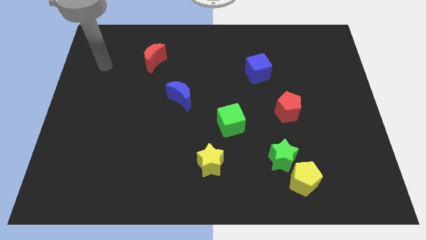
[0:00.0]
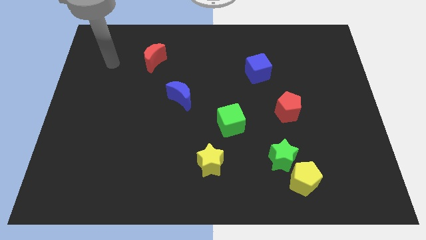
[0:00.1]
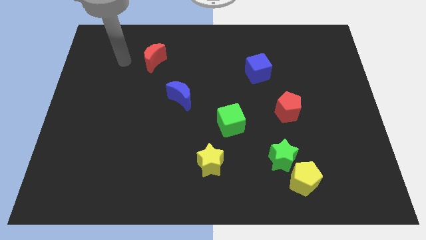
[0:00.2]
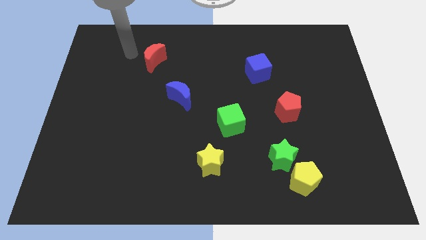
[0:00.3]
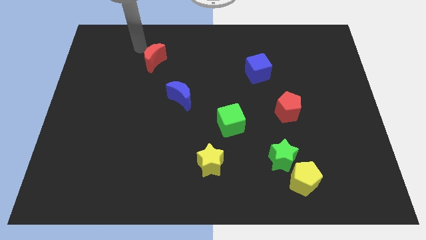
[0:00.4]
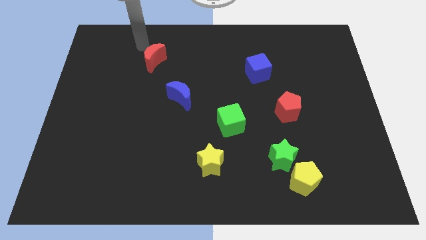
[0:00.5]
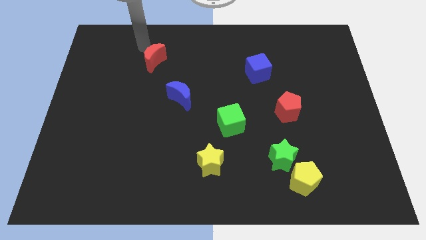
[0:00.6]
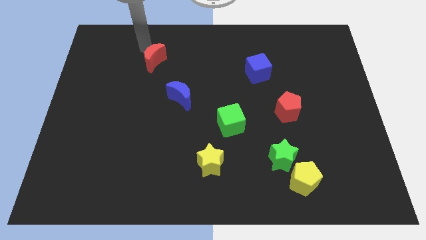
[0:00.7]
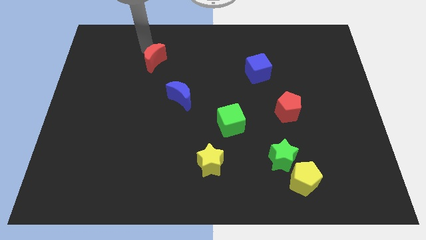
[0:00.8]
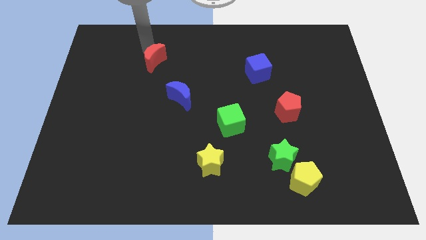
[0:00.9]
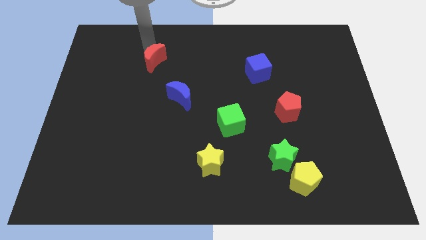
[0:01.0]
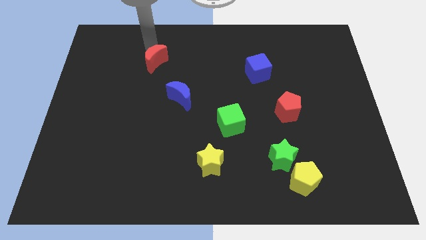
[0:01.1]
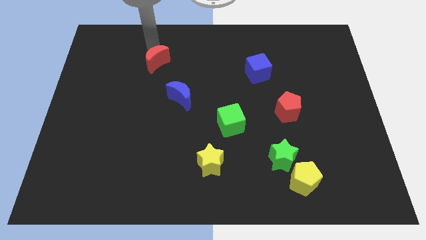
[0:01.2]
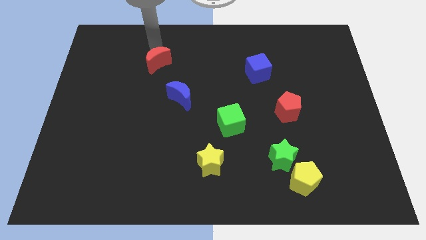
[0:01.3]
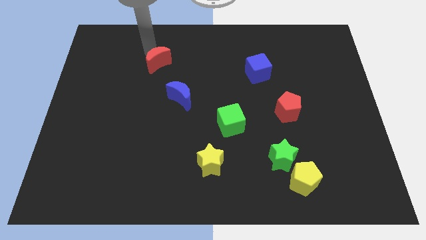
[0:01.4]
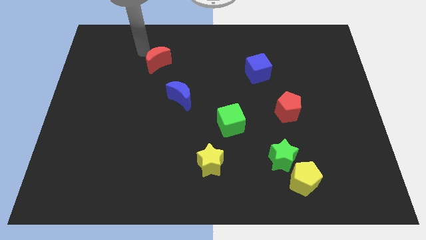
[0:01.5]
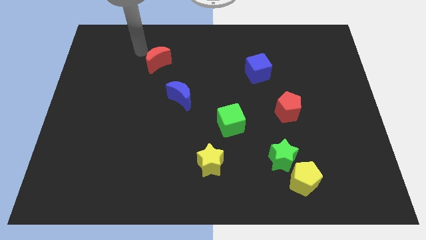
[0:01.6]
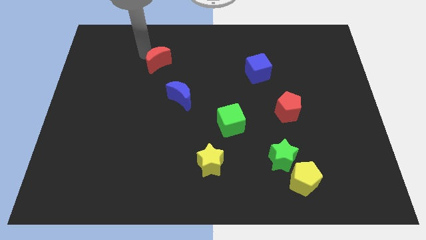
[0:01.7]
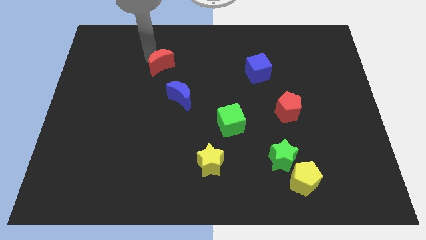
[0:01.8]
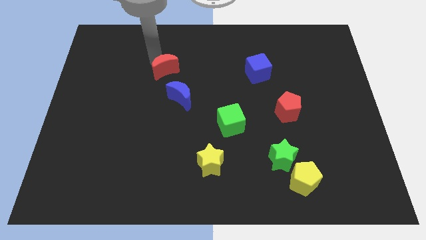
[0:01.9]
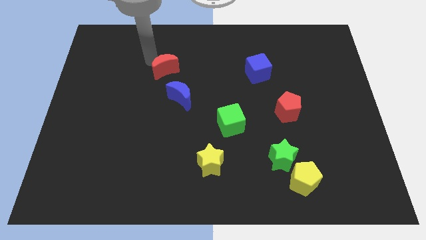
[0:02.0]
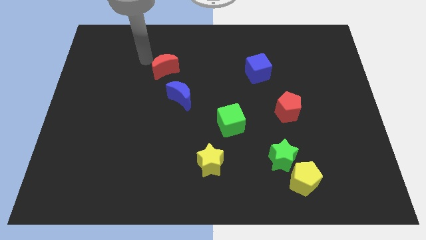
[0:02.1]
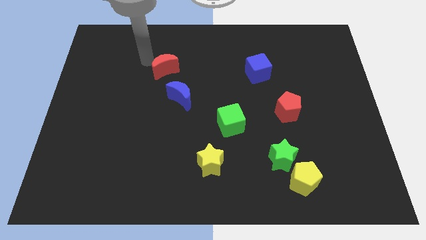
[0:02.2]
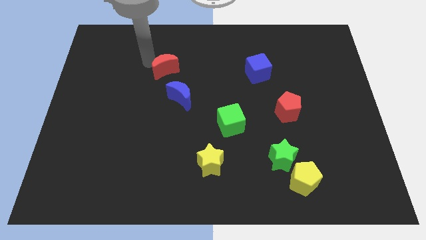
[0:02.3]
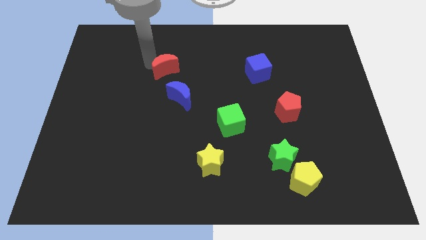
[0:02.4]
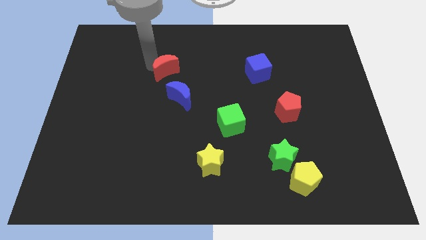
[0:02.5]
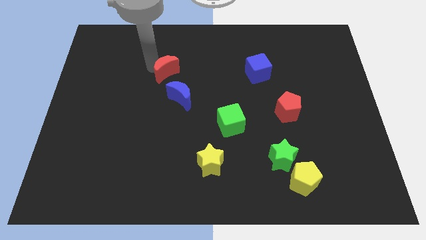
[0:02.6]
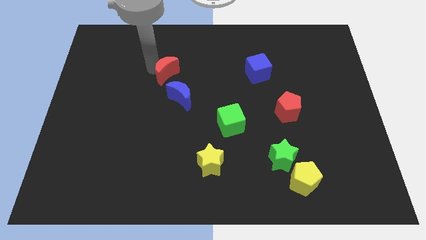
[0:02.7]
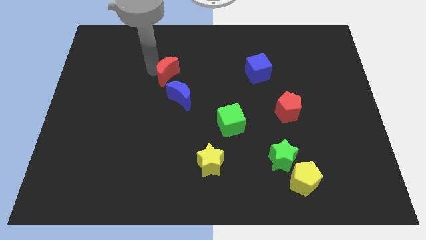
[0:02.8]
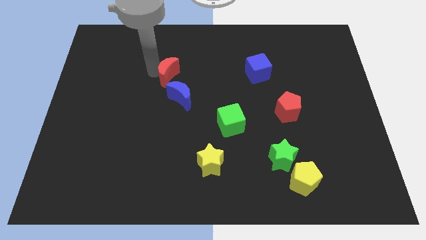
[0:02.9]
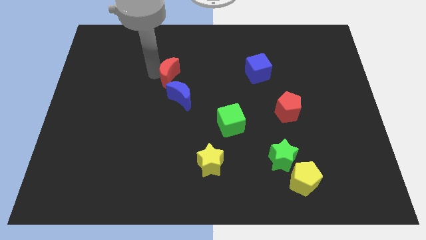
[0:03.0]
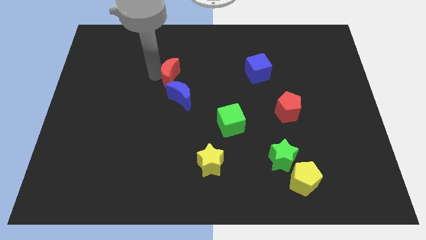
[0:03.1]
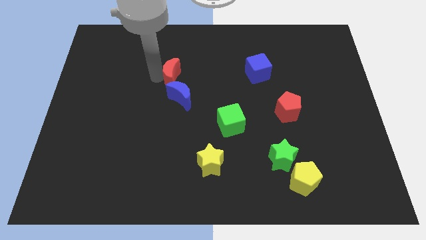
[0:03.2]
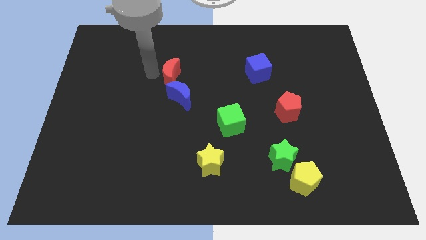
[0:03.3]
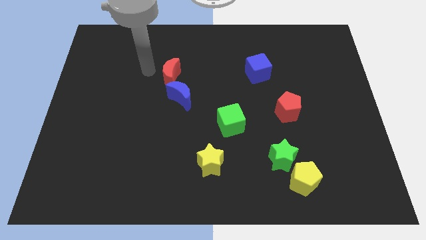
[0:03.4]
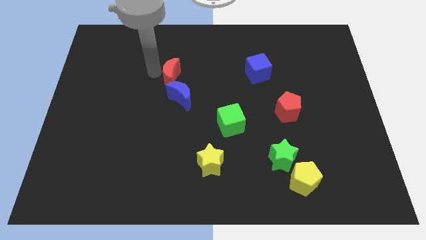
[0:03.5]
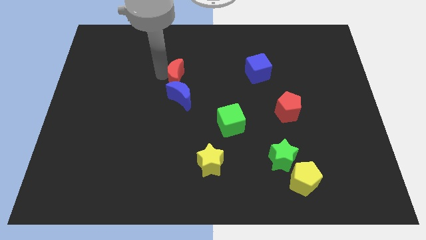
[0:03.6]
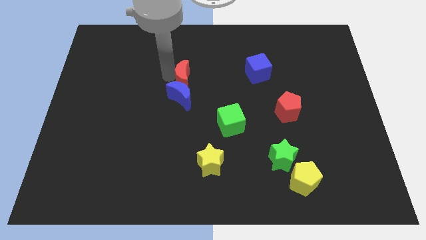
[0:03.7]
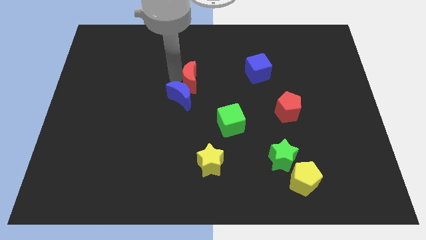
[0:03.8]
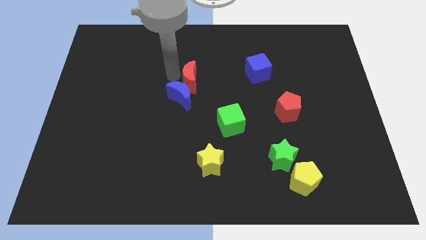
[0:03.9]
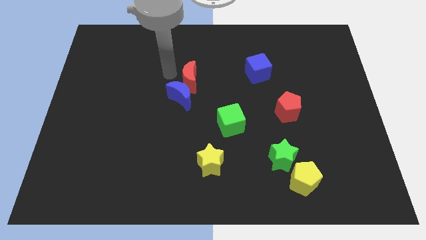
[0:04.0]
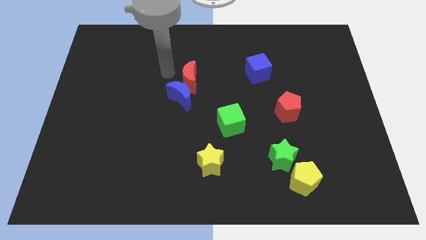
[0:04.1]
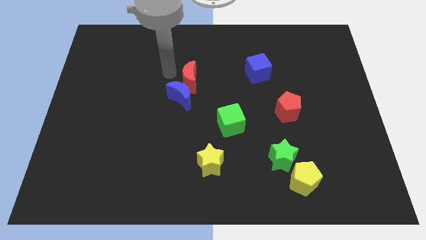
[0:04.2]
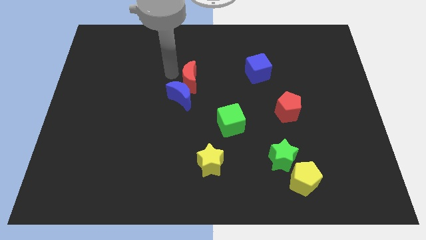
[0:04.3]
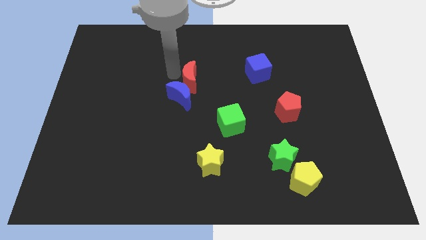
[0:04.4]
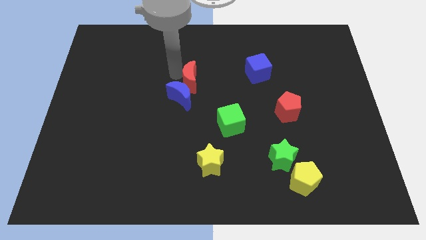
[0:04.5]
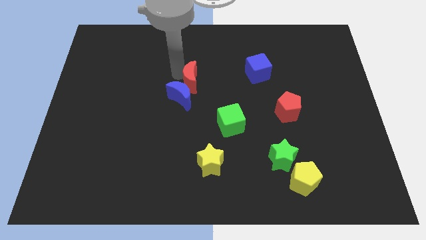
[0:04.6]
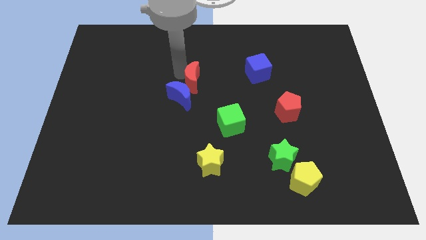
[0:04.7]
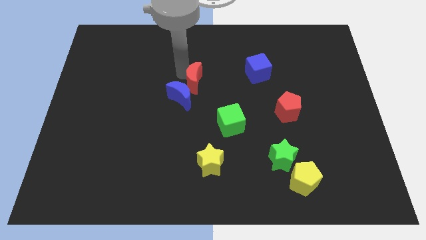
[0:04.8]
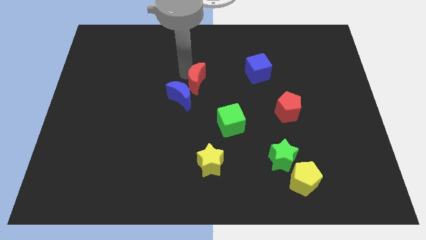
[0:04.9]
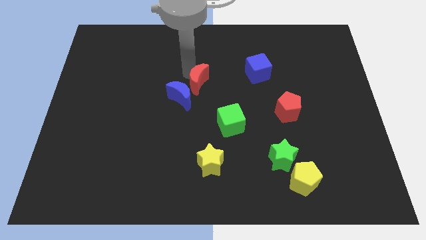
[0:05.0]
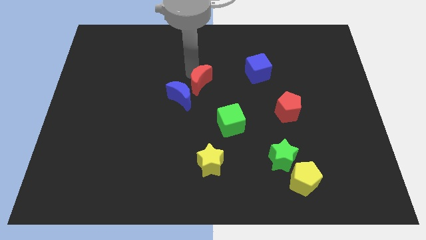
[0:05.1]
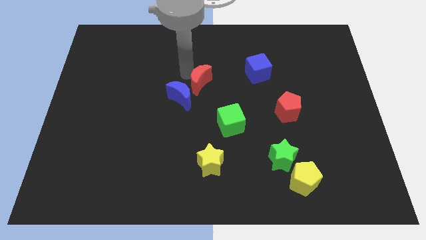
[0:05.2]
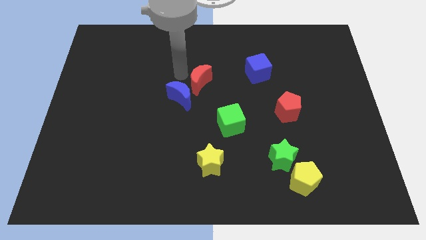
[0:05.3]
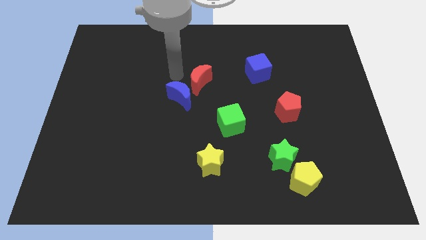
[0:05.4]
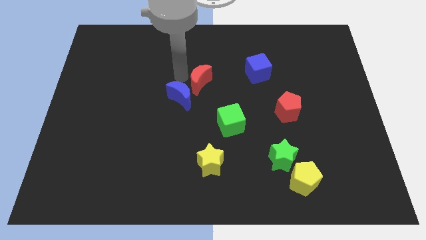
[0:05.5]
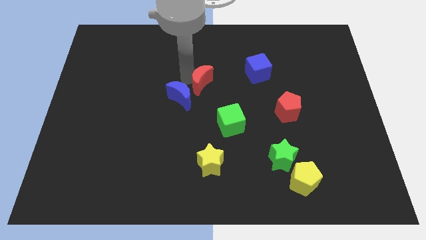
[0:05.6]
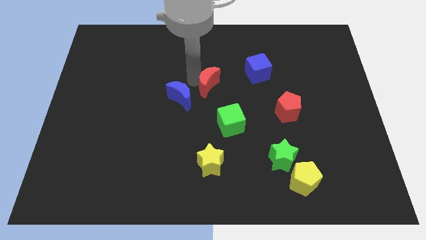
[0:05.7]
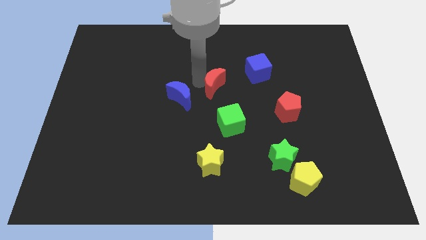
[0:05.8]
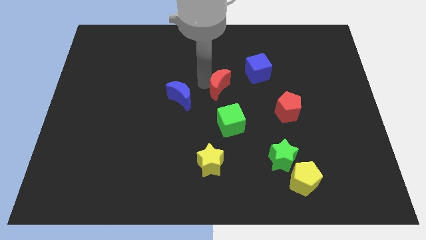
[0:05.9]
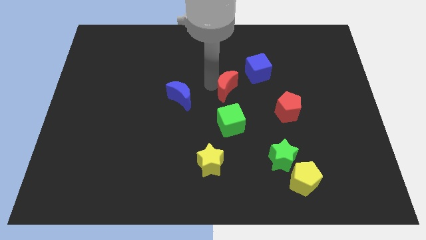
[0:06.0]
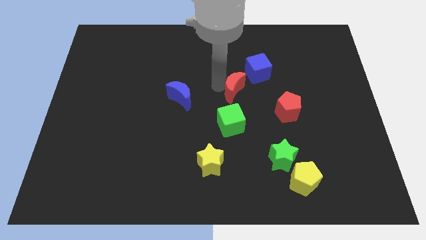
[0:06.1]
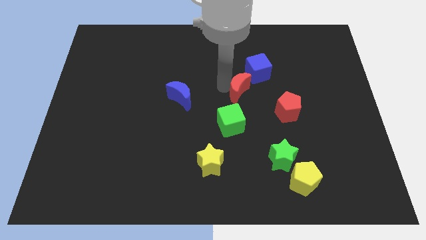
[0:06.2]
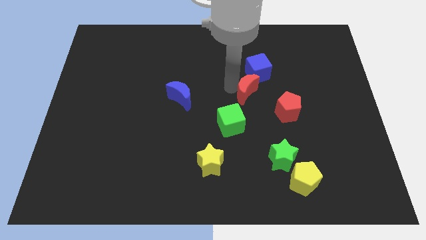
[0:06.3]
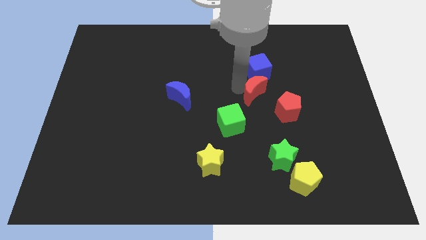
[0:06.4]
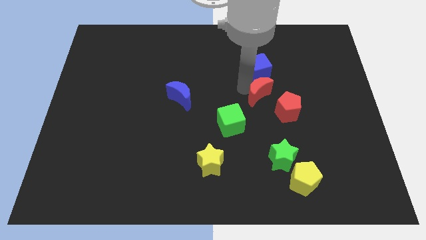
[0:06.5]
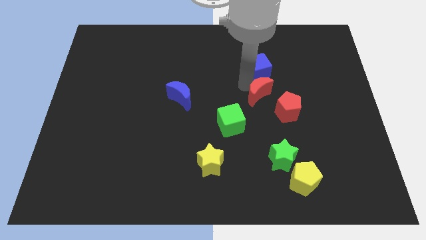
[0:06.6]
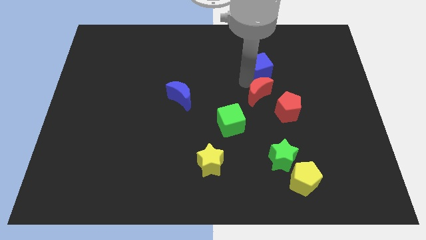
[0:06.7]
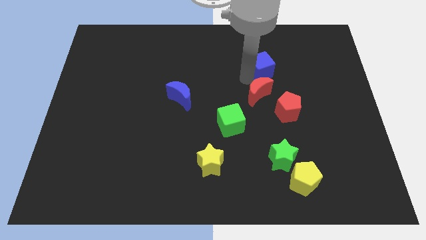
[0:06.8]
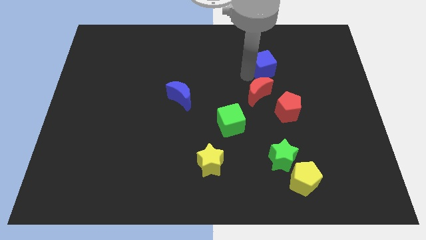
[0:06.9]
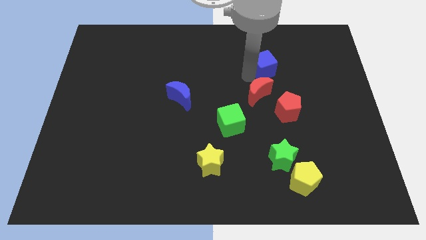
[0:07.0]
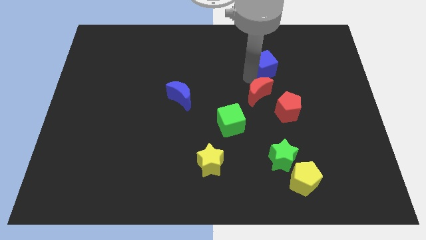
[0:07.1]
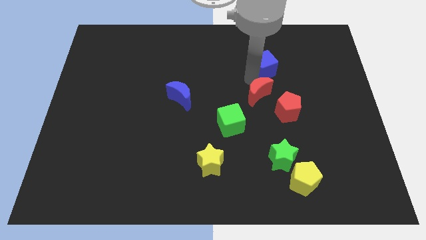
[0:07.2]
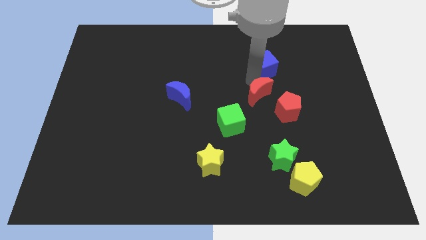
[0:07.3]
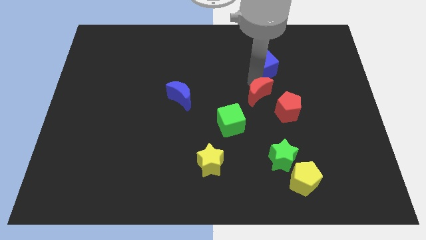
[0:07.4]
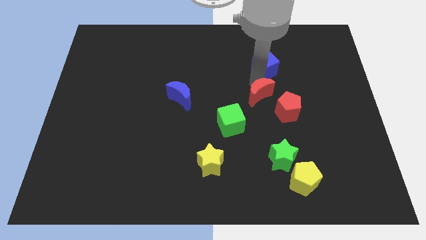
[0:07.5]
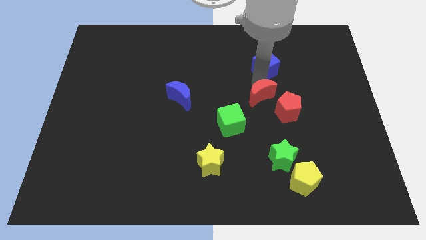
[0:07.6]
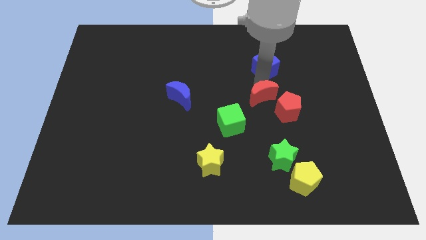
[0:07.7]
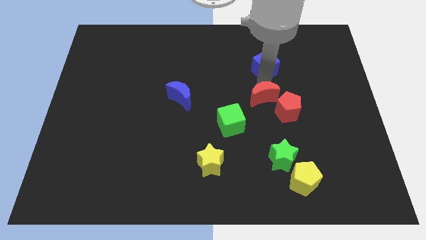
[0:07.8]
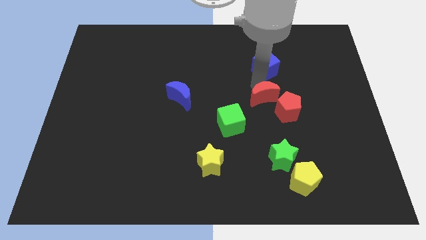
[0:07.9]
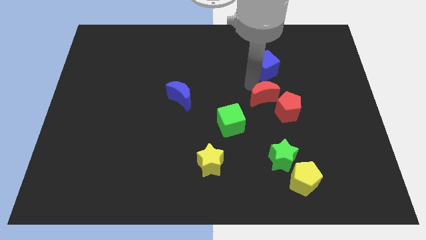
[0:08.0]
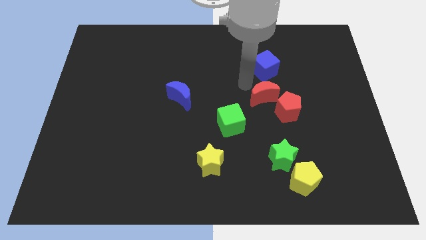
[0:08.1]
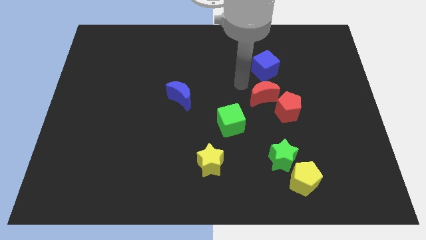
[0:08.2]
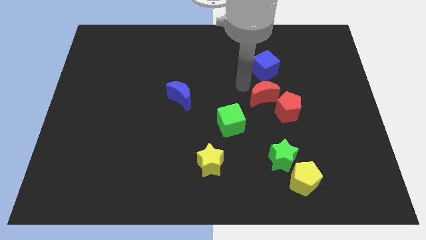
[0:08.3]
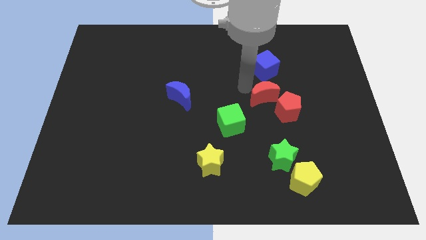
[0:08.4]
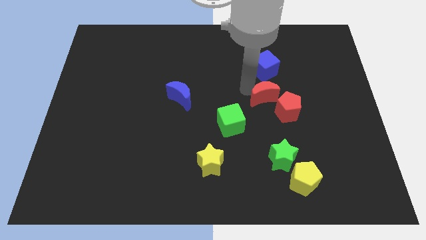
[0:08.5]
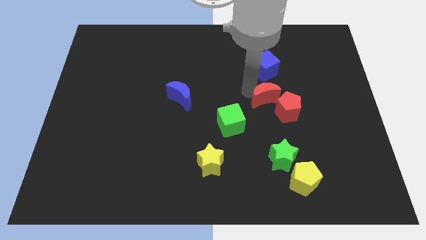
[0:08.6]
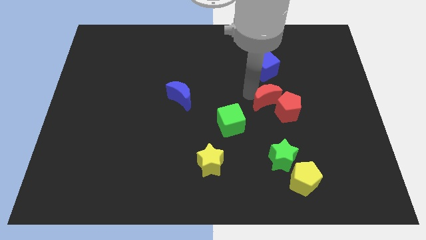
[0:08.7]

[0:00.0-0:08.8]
move the red moon close to the red pentagon
